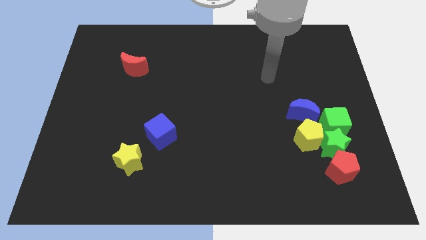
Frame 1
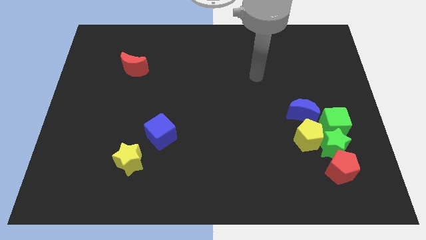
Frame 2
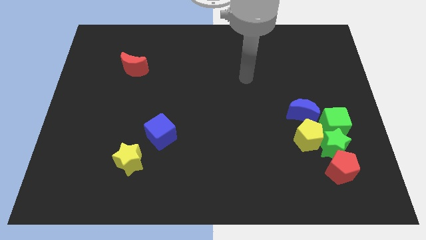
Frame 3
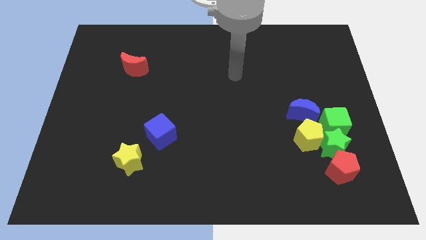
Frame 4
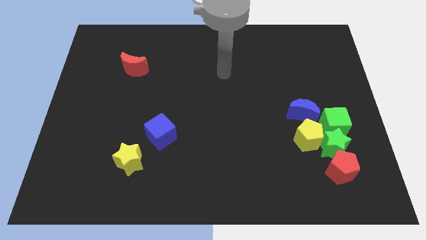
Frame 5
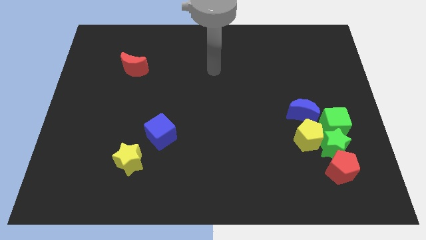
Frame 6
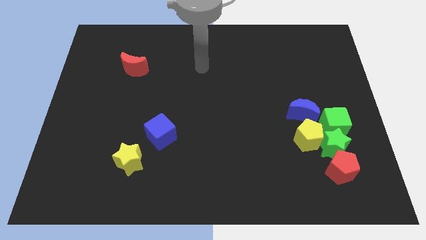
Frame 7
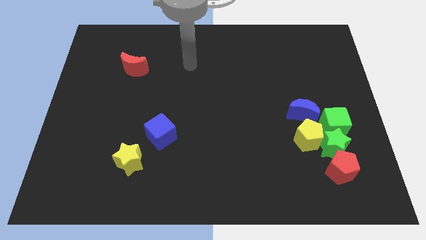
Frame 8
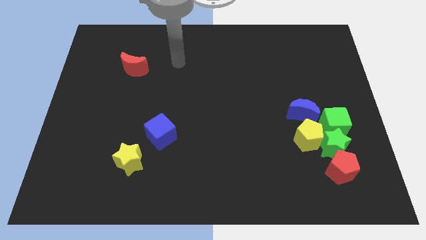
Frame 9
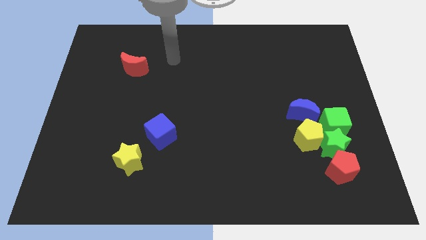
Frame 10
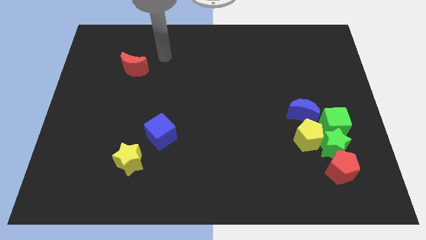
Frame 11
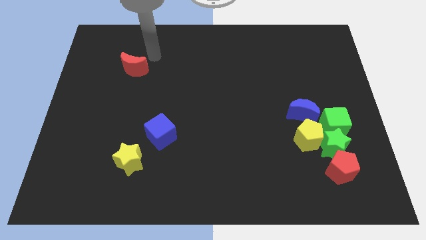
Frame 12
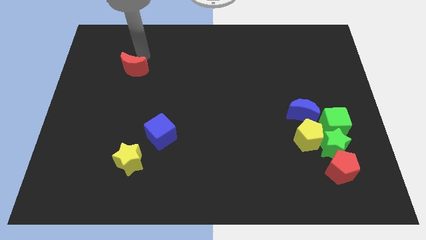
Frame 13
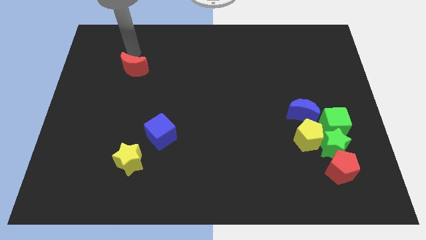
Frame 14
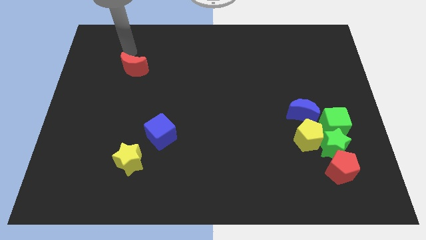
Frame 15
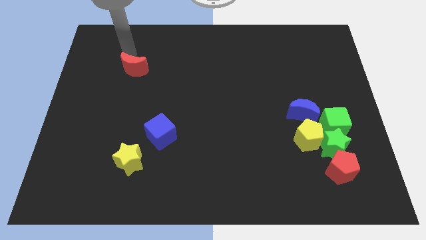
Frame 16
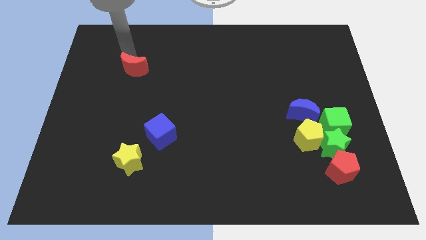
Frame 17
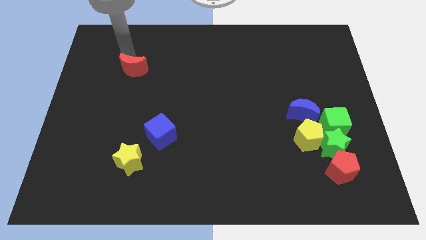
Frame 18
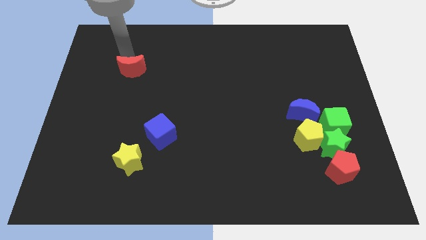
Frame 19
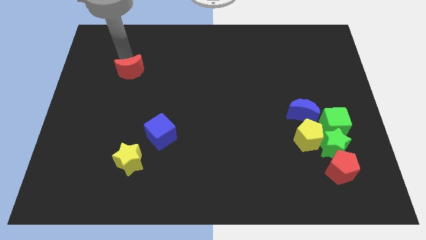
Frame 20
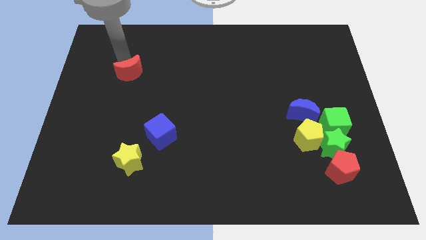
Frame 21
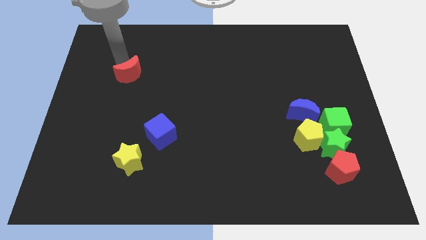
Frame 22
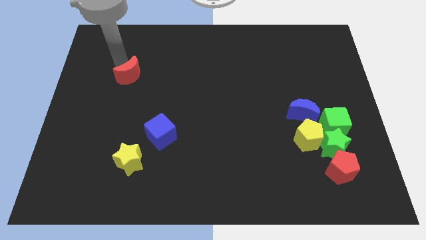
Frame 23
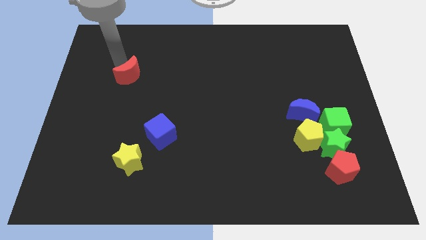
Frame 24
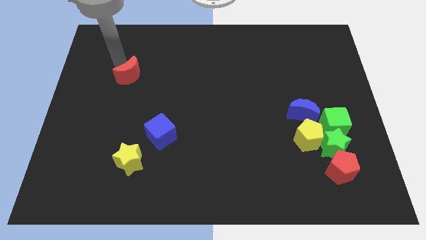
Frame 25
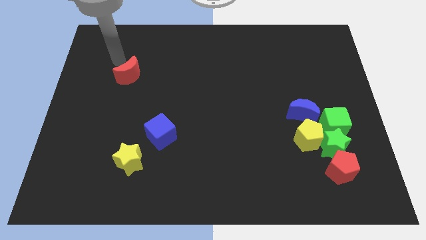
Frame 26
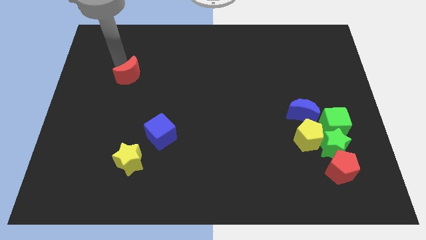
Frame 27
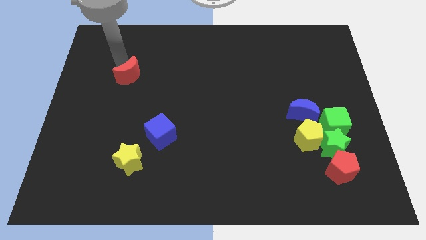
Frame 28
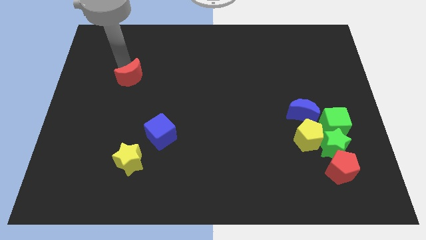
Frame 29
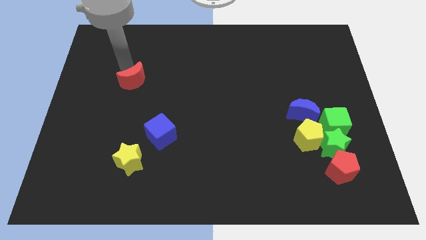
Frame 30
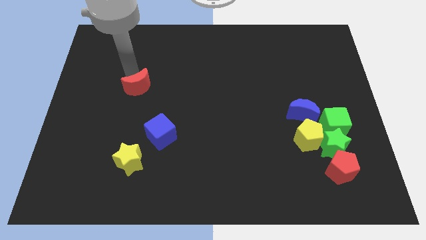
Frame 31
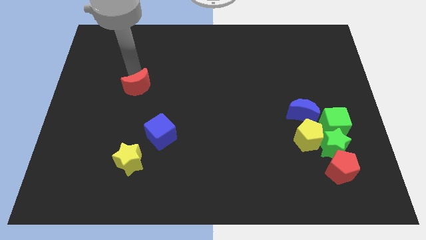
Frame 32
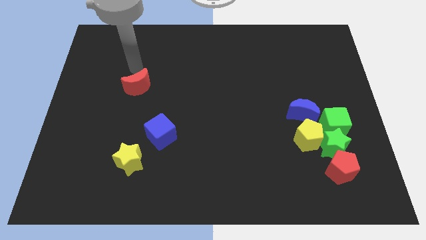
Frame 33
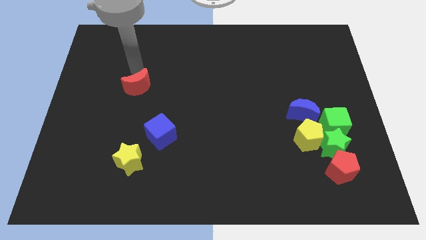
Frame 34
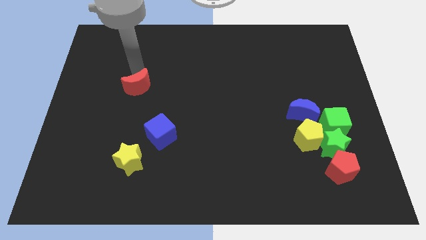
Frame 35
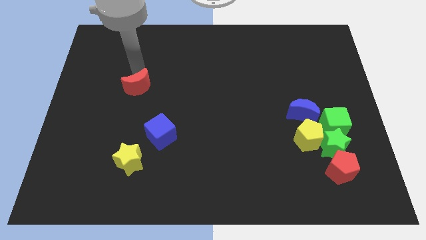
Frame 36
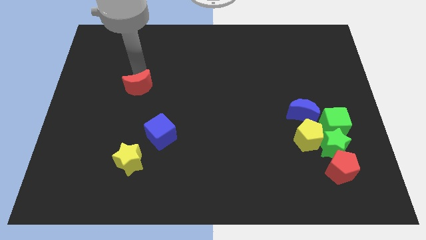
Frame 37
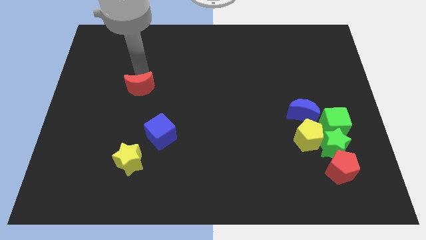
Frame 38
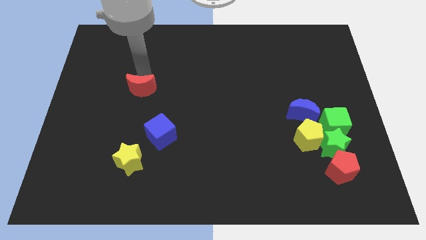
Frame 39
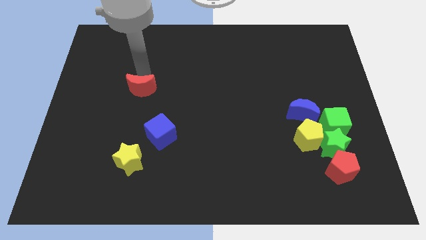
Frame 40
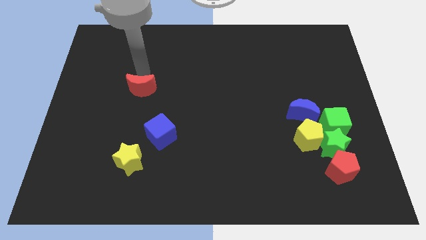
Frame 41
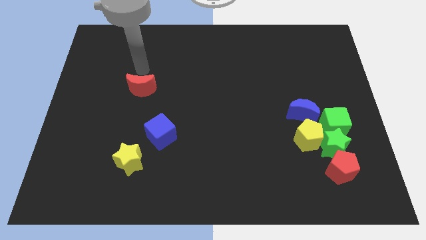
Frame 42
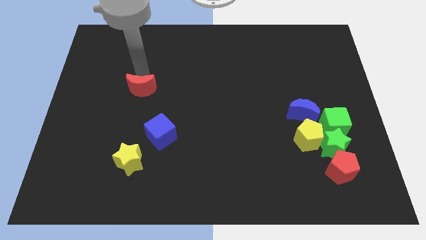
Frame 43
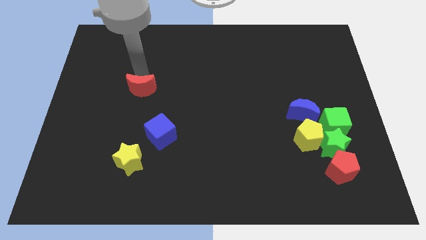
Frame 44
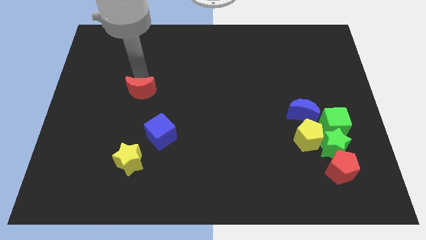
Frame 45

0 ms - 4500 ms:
move the red moon downwards a bit

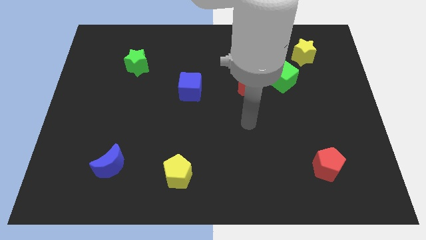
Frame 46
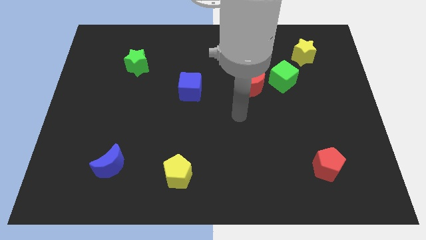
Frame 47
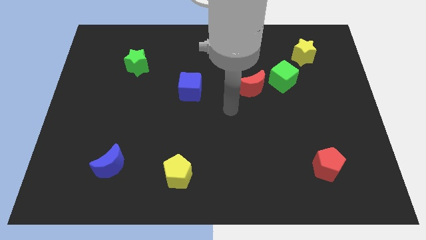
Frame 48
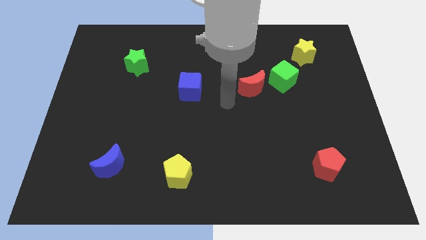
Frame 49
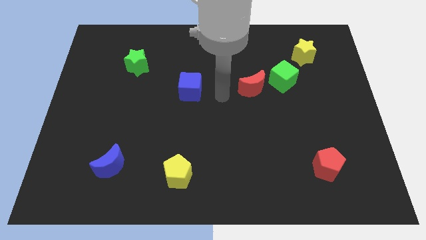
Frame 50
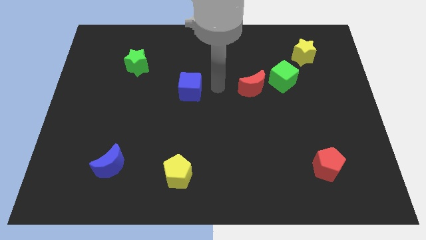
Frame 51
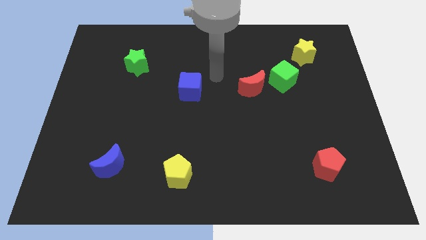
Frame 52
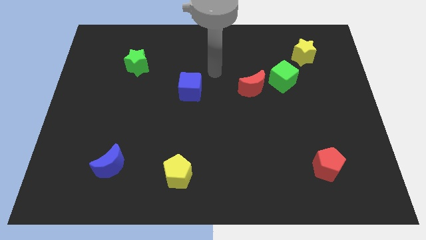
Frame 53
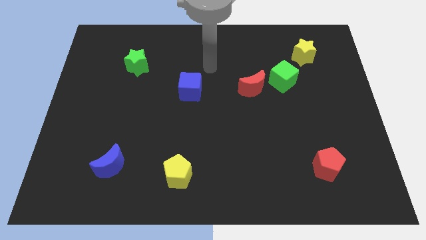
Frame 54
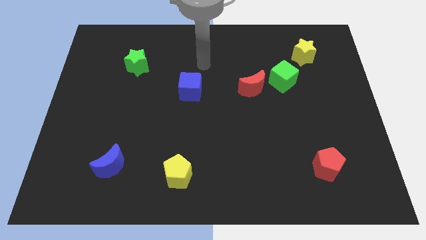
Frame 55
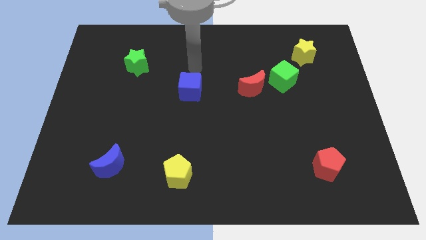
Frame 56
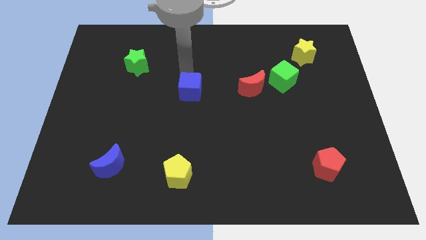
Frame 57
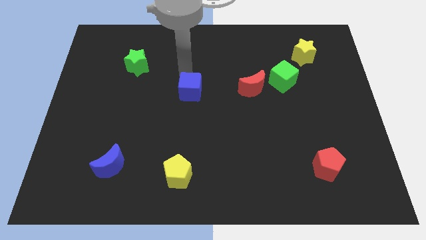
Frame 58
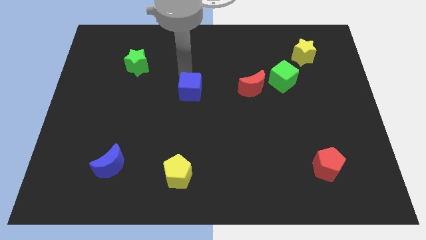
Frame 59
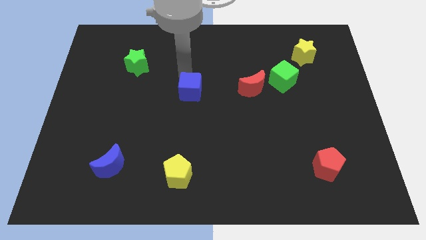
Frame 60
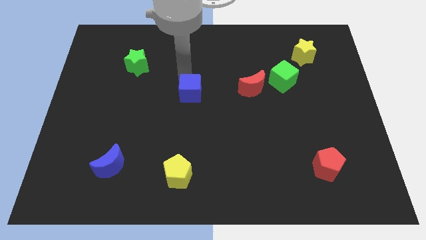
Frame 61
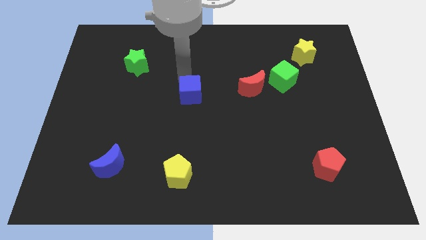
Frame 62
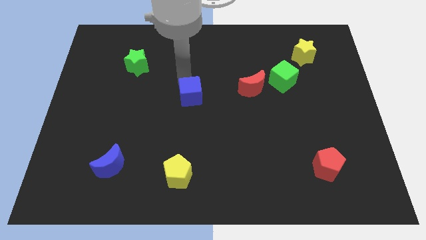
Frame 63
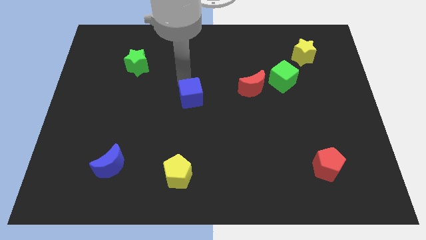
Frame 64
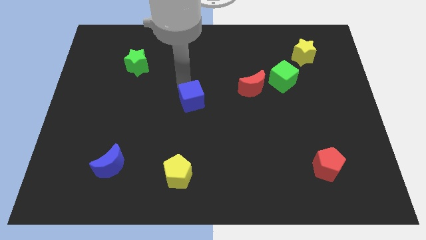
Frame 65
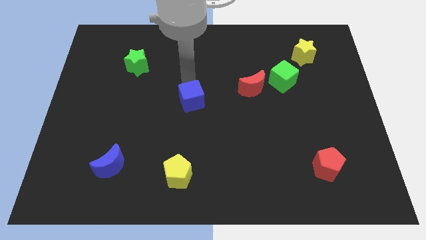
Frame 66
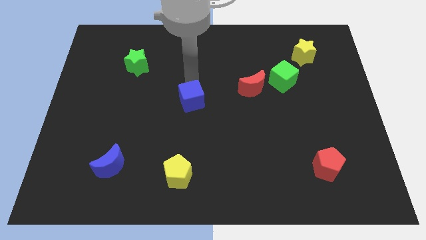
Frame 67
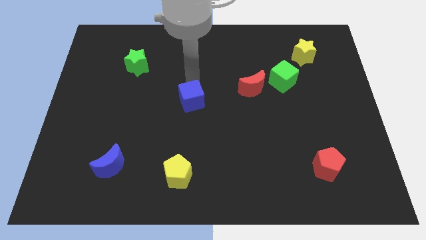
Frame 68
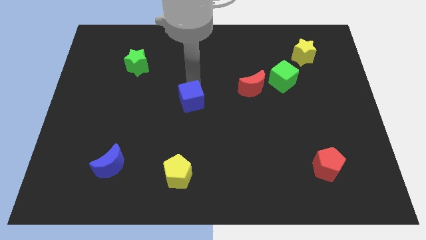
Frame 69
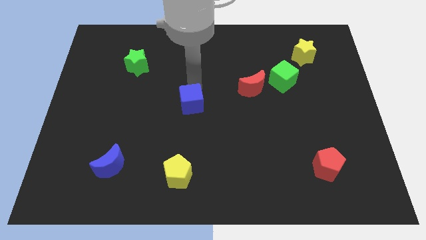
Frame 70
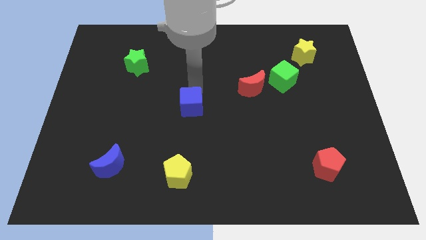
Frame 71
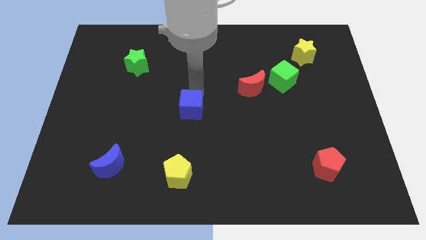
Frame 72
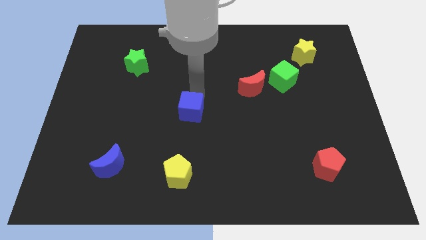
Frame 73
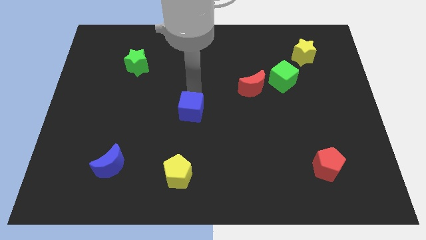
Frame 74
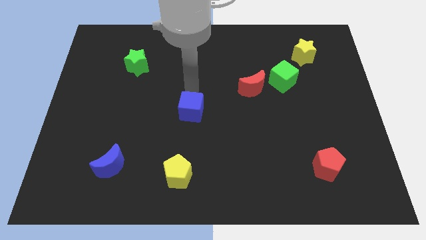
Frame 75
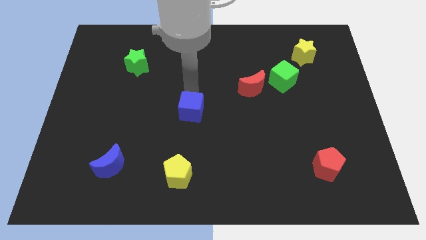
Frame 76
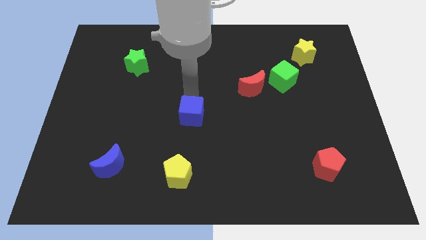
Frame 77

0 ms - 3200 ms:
push the blue cube a little bit down

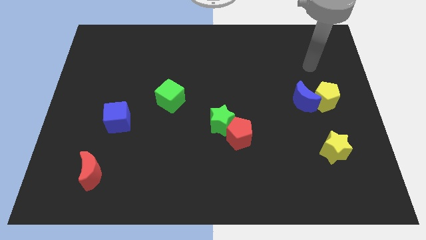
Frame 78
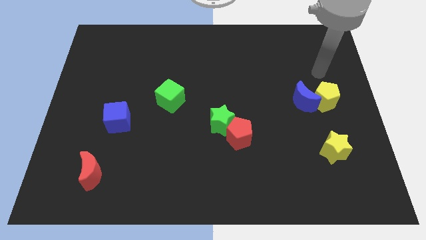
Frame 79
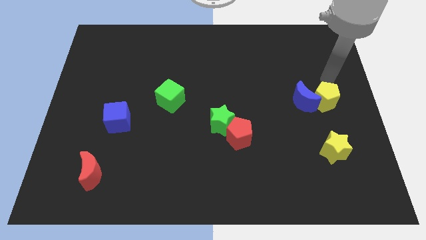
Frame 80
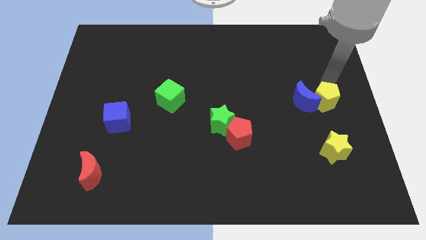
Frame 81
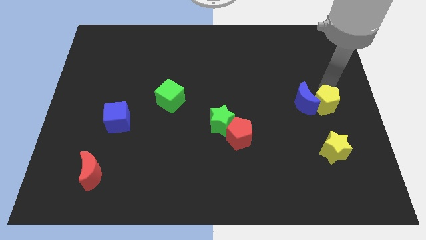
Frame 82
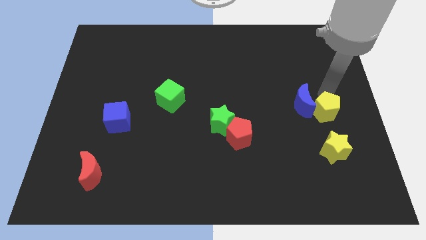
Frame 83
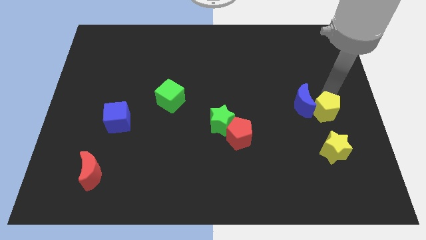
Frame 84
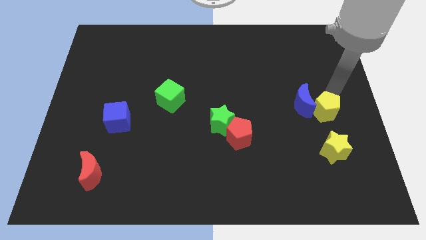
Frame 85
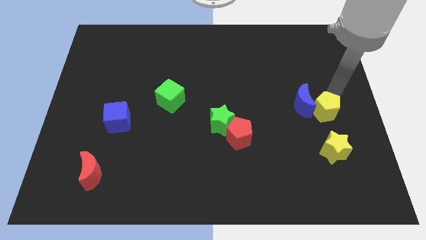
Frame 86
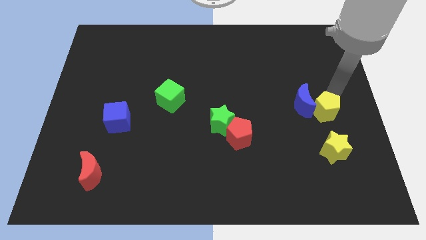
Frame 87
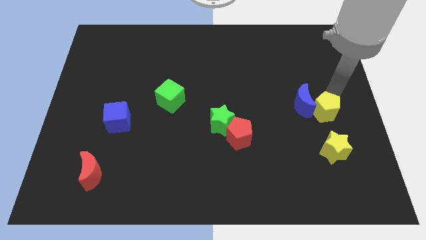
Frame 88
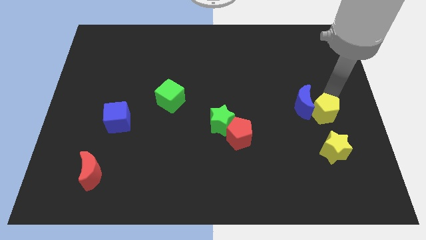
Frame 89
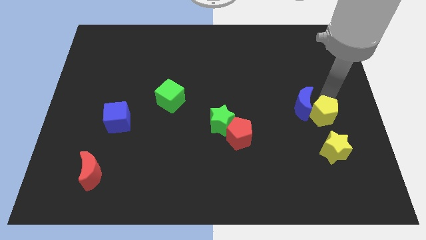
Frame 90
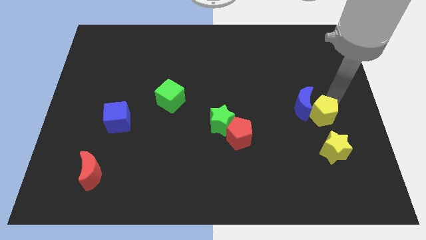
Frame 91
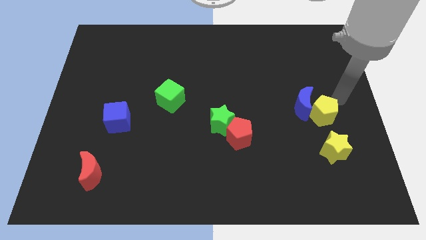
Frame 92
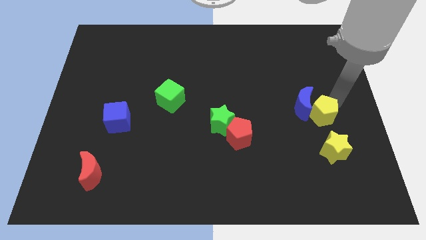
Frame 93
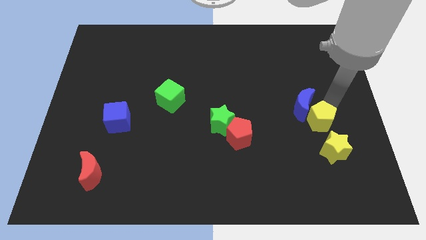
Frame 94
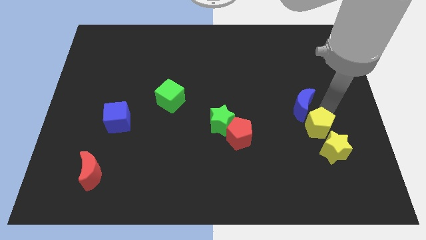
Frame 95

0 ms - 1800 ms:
slide the yellow pentagon down and left diagonally somewhat
